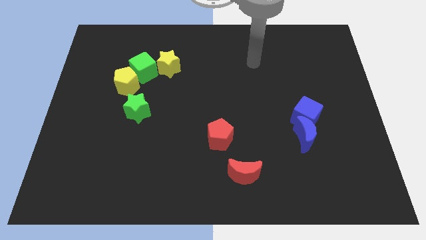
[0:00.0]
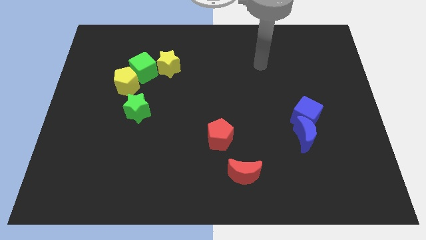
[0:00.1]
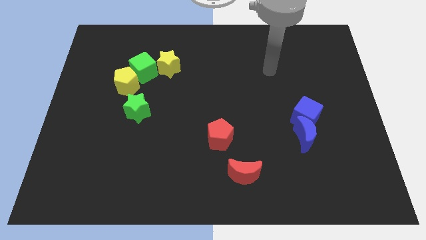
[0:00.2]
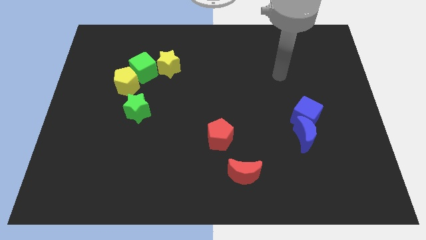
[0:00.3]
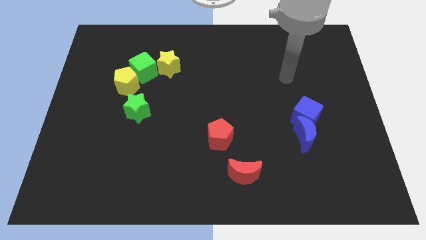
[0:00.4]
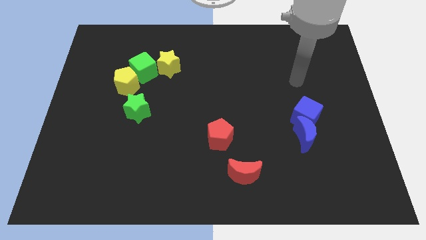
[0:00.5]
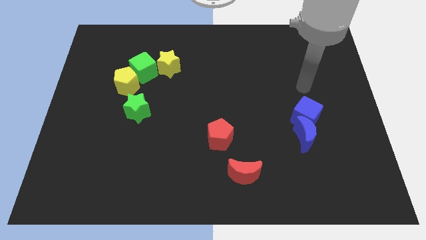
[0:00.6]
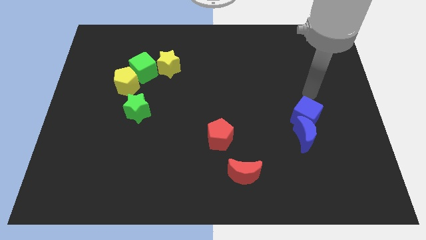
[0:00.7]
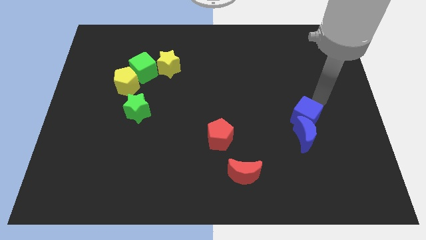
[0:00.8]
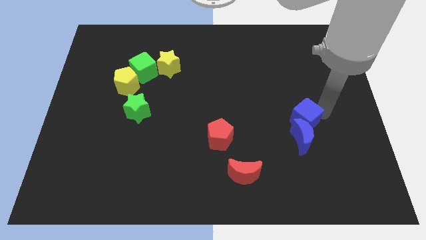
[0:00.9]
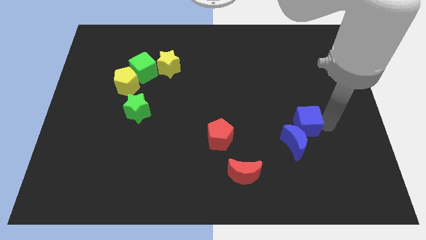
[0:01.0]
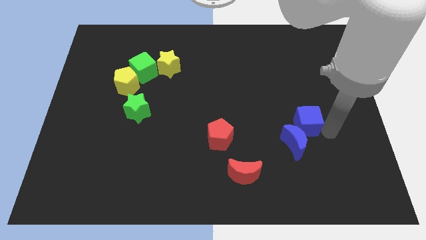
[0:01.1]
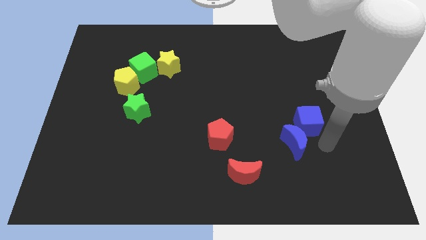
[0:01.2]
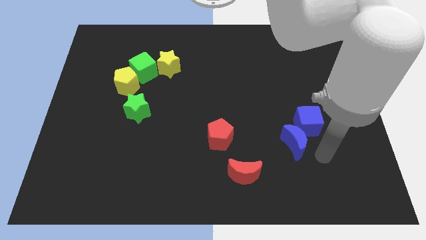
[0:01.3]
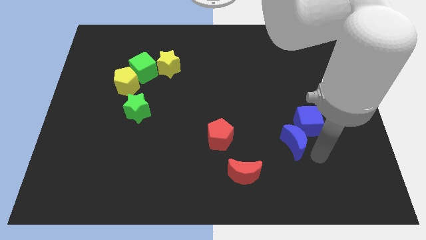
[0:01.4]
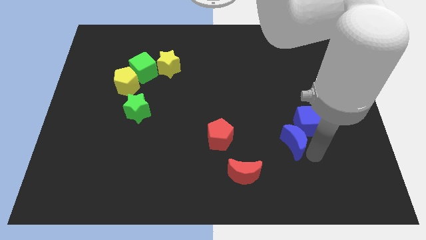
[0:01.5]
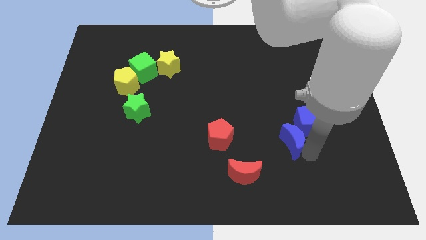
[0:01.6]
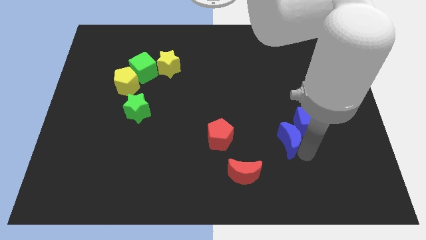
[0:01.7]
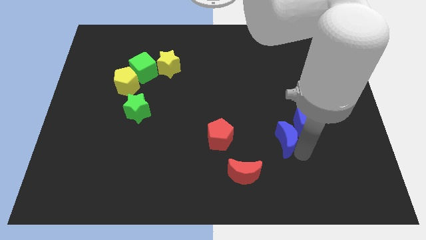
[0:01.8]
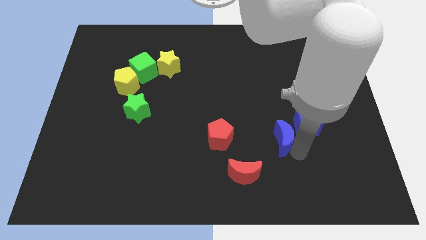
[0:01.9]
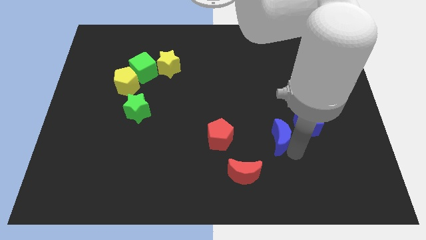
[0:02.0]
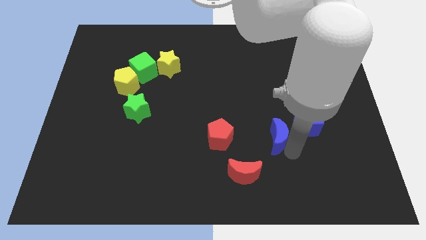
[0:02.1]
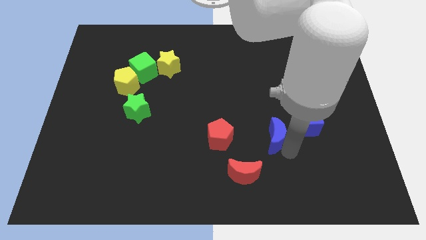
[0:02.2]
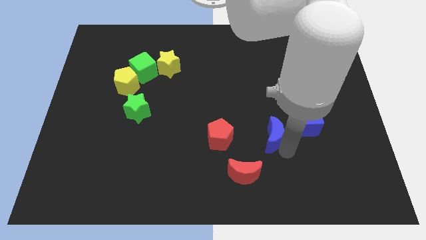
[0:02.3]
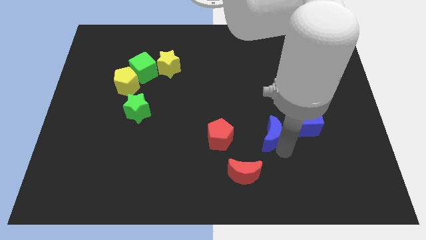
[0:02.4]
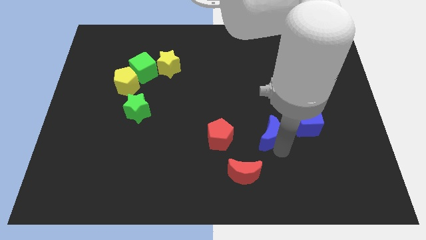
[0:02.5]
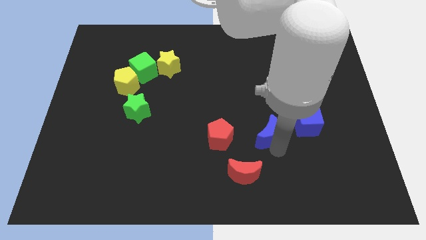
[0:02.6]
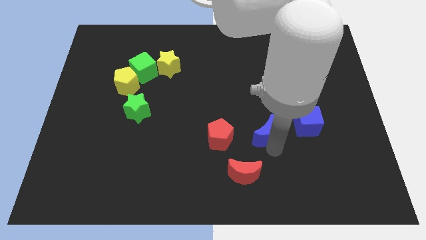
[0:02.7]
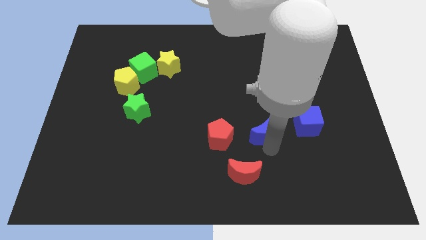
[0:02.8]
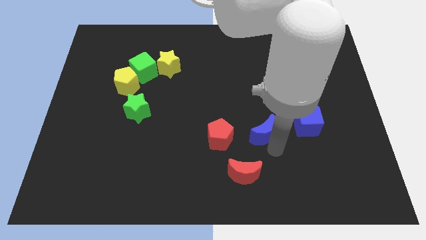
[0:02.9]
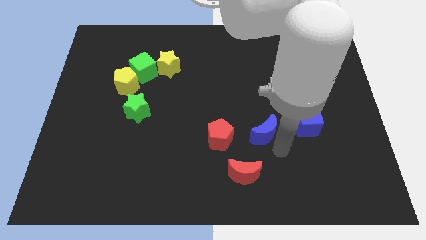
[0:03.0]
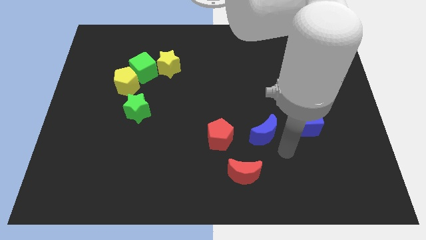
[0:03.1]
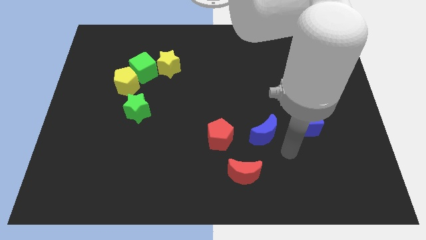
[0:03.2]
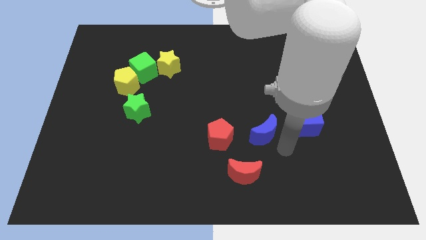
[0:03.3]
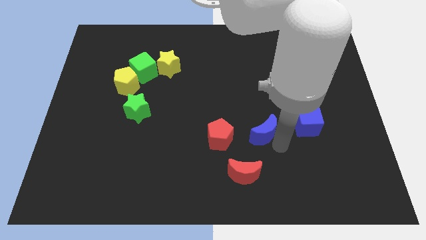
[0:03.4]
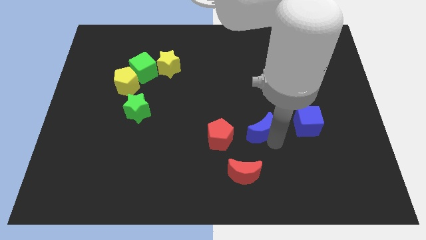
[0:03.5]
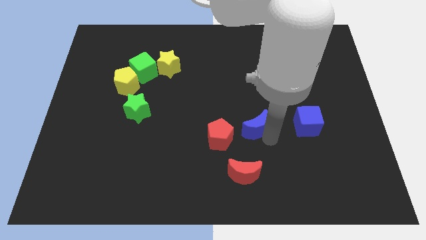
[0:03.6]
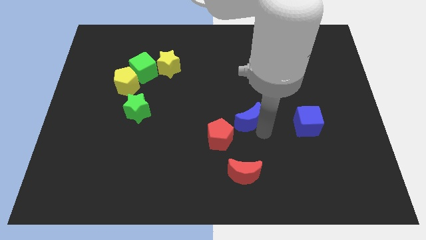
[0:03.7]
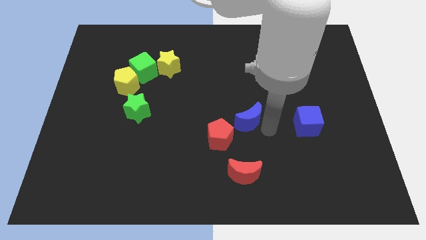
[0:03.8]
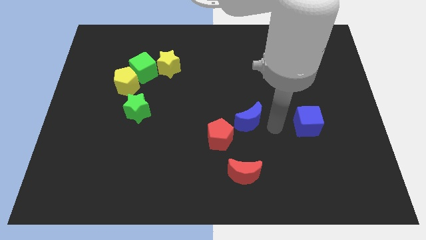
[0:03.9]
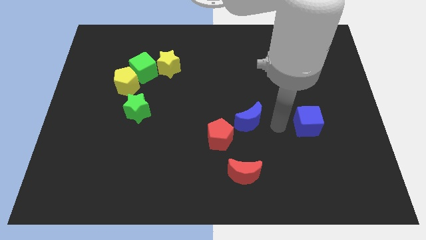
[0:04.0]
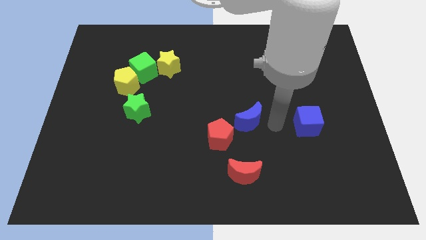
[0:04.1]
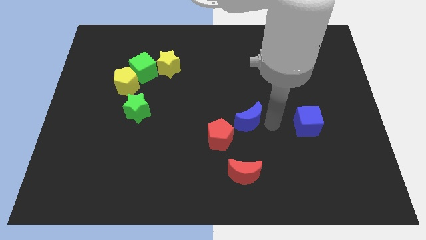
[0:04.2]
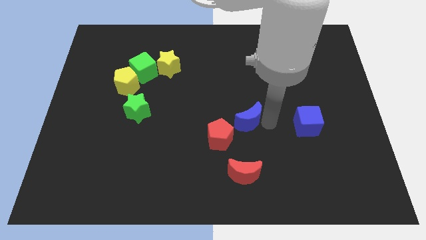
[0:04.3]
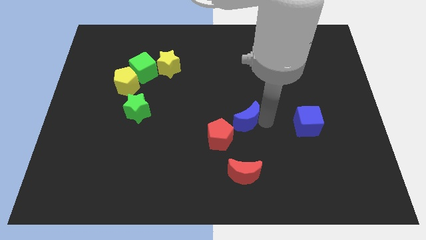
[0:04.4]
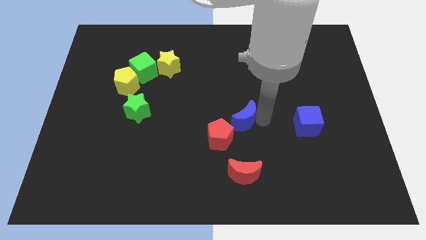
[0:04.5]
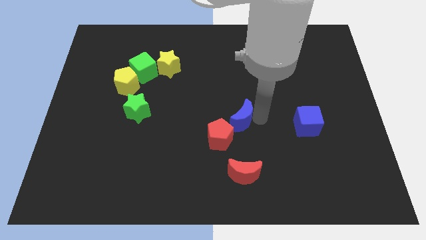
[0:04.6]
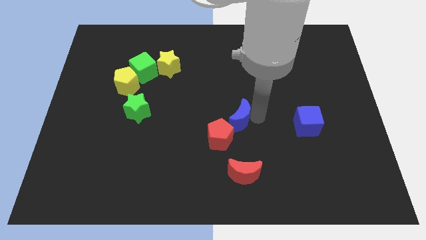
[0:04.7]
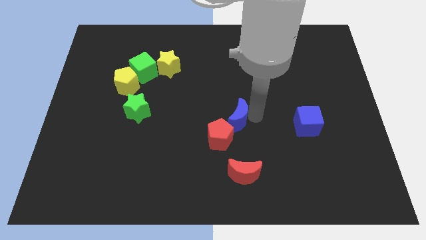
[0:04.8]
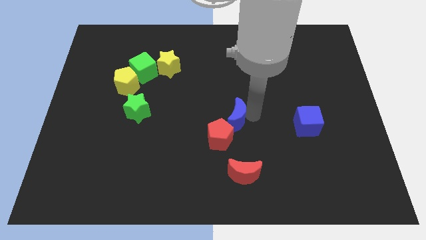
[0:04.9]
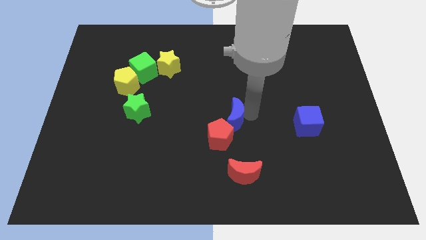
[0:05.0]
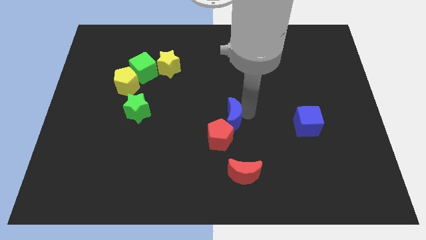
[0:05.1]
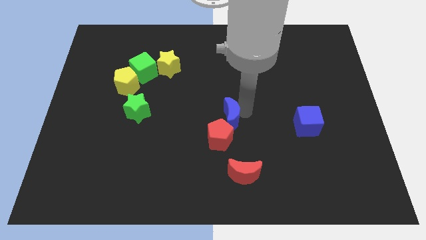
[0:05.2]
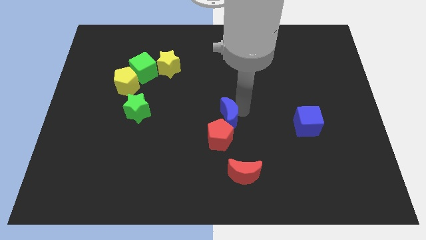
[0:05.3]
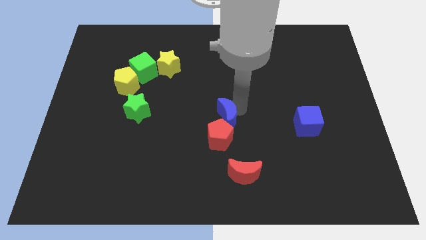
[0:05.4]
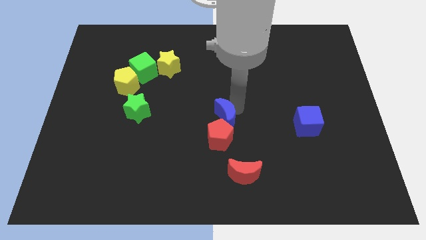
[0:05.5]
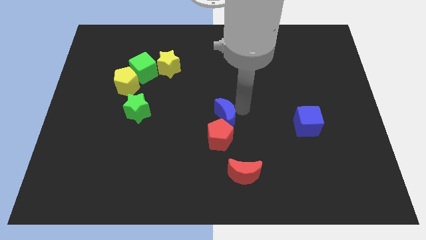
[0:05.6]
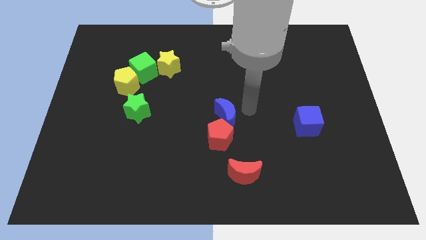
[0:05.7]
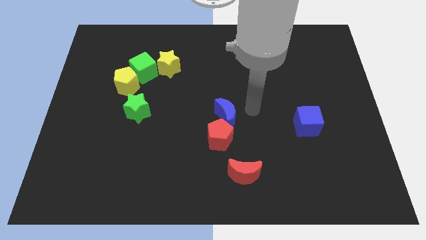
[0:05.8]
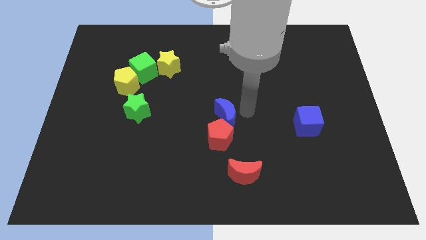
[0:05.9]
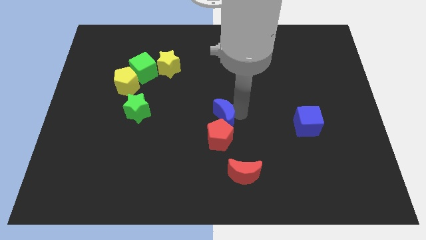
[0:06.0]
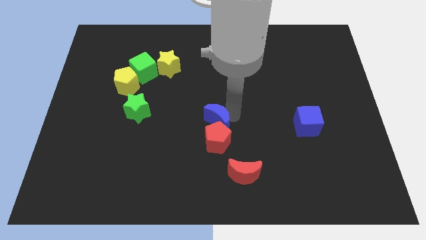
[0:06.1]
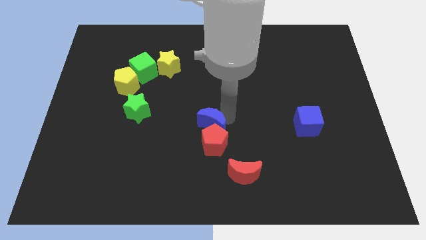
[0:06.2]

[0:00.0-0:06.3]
slide the blue moon left

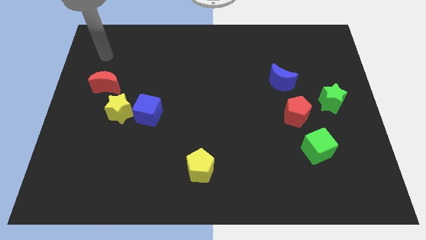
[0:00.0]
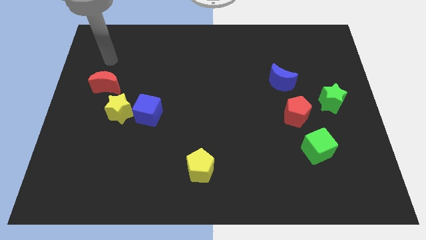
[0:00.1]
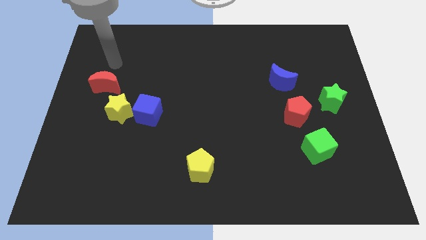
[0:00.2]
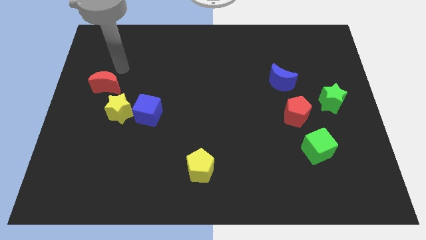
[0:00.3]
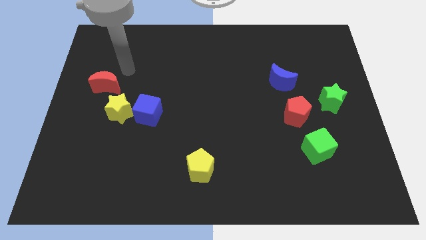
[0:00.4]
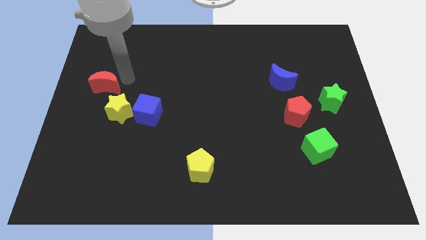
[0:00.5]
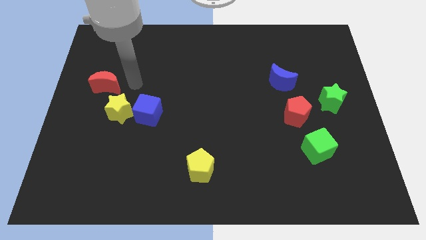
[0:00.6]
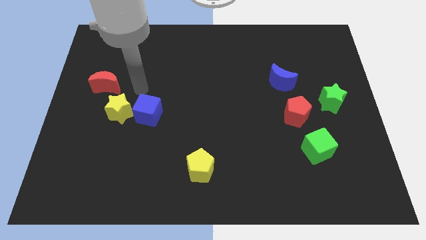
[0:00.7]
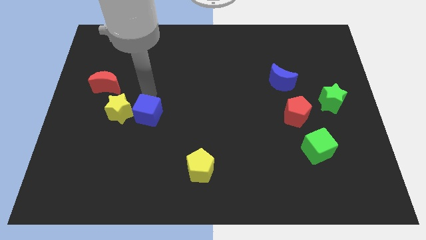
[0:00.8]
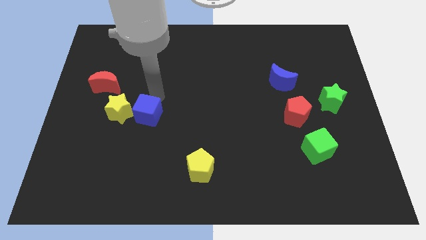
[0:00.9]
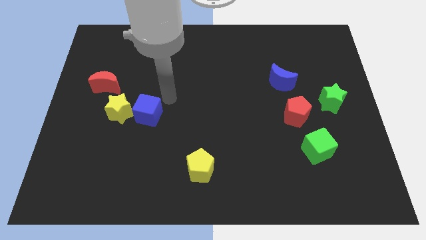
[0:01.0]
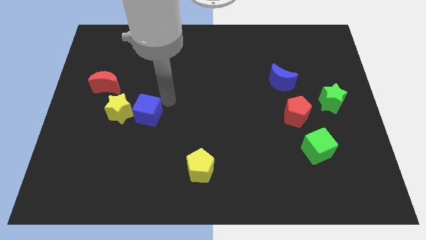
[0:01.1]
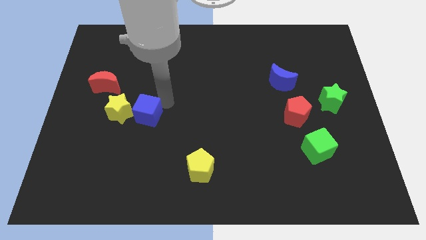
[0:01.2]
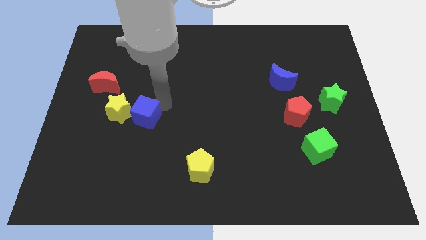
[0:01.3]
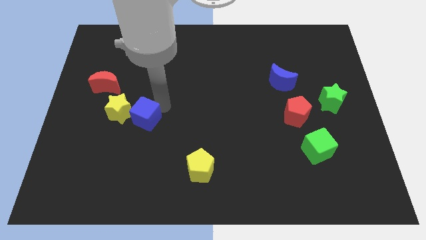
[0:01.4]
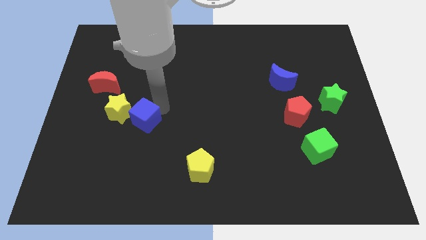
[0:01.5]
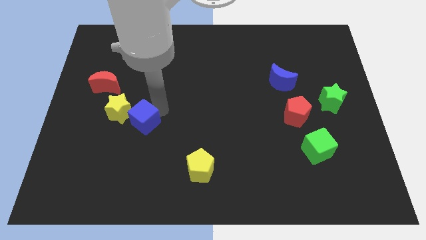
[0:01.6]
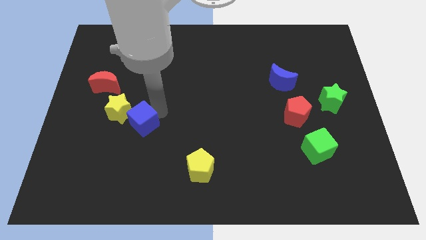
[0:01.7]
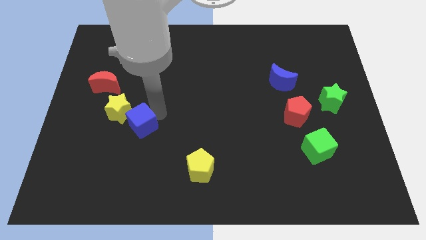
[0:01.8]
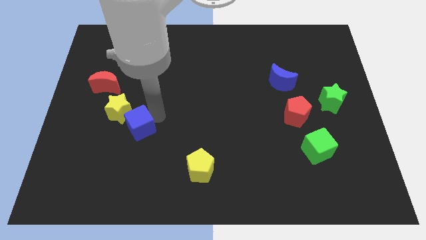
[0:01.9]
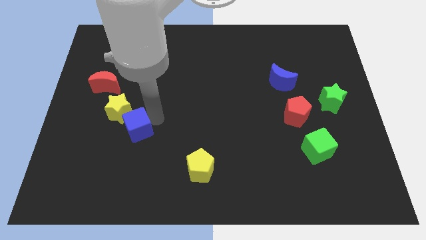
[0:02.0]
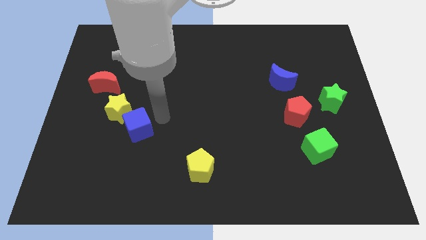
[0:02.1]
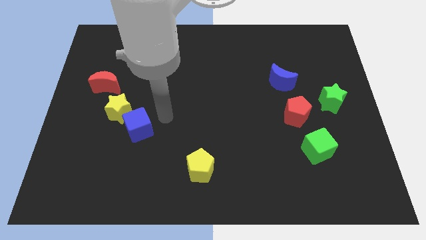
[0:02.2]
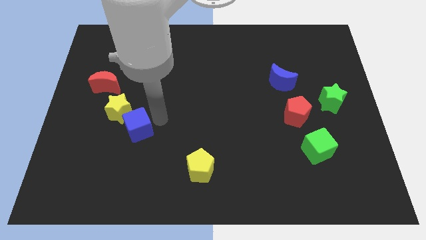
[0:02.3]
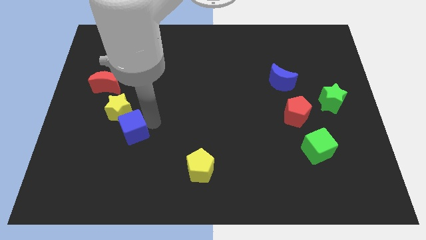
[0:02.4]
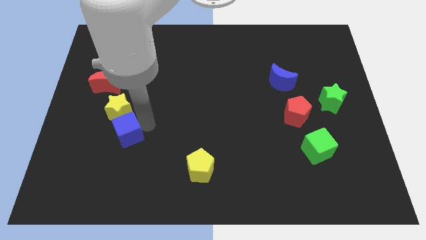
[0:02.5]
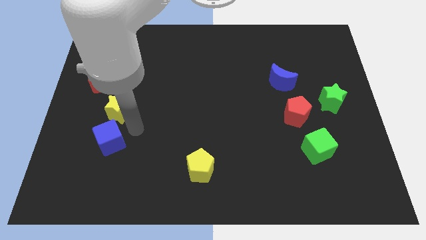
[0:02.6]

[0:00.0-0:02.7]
push the blue cube diagonally downwards and left a bit
